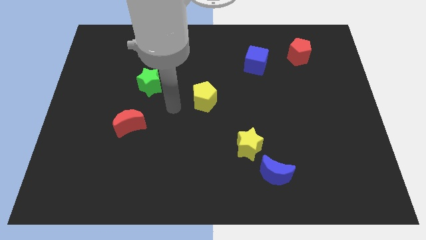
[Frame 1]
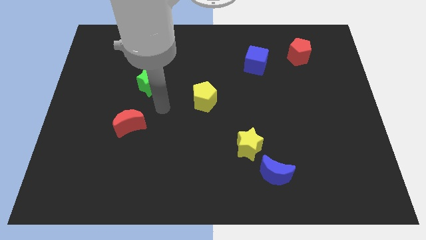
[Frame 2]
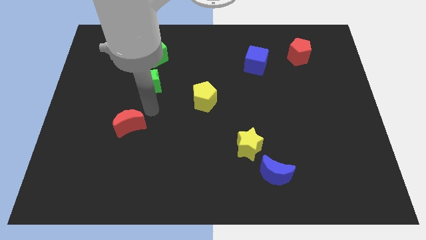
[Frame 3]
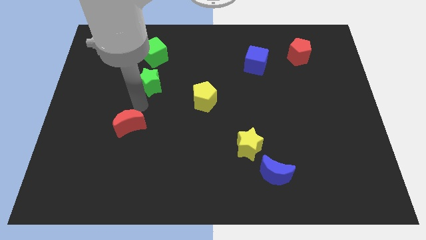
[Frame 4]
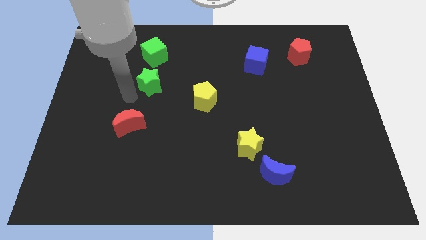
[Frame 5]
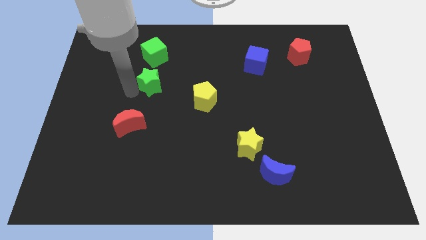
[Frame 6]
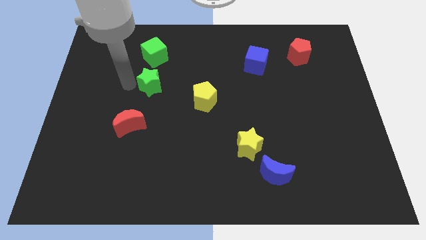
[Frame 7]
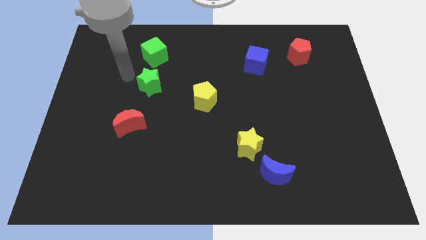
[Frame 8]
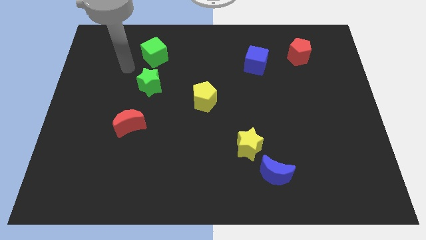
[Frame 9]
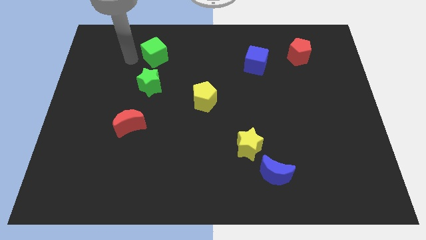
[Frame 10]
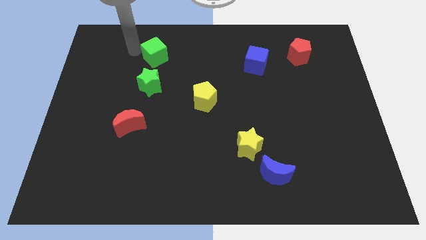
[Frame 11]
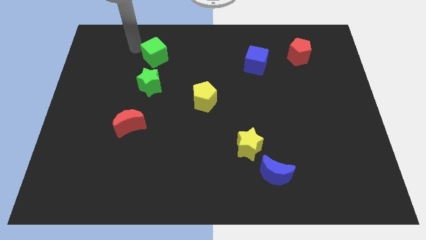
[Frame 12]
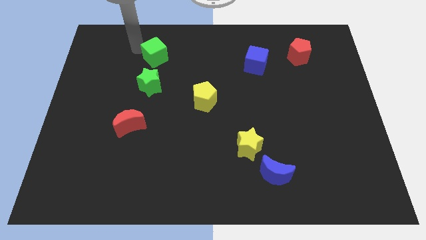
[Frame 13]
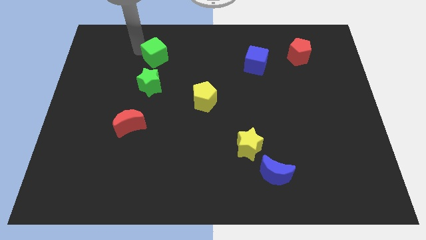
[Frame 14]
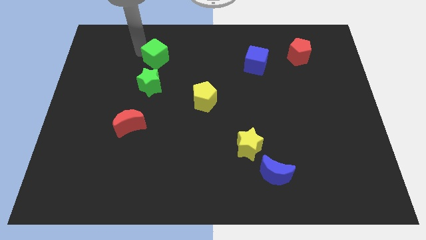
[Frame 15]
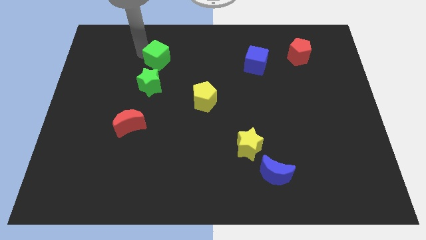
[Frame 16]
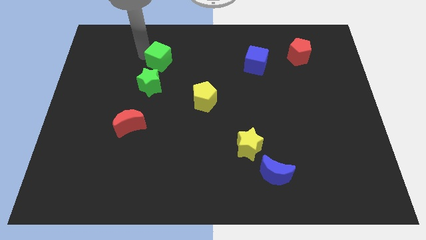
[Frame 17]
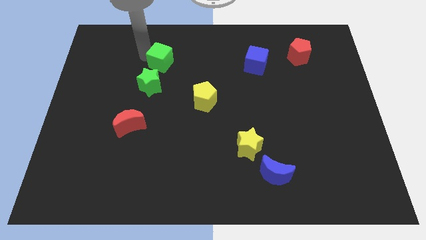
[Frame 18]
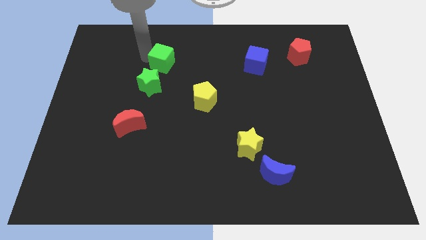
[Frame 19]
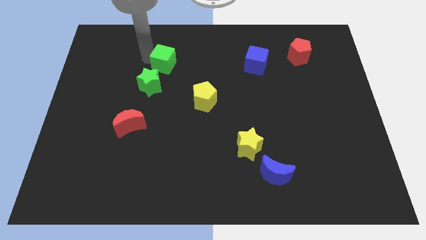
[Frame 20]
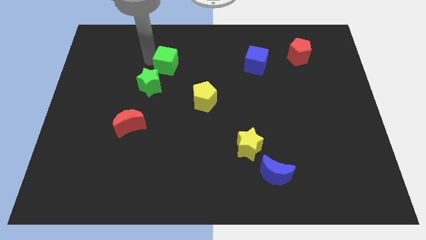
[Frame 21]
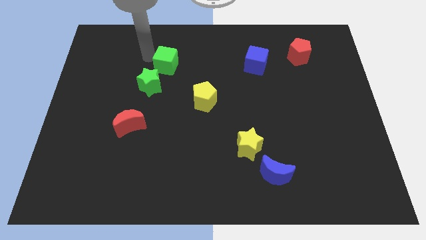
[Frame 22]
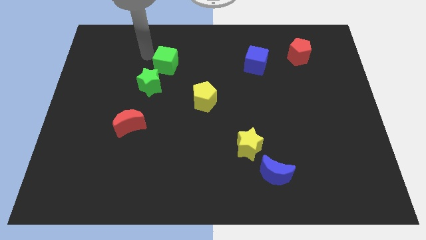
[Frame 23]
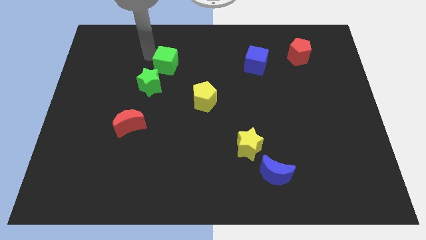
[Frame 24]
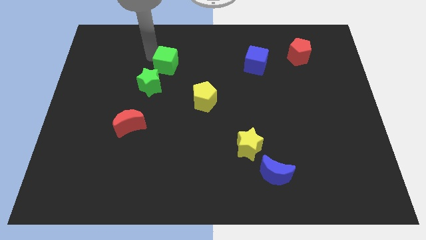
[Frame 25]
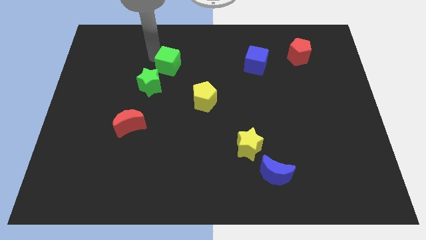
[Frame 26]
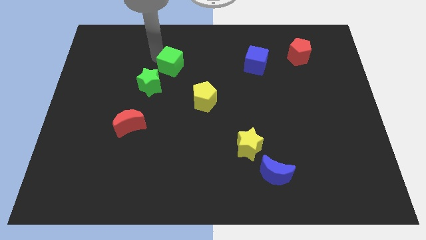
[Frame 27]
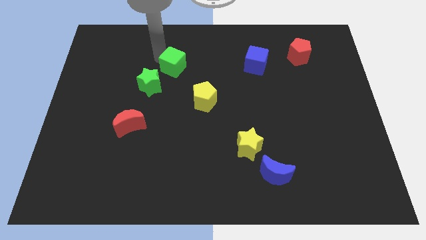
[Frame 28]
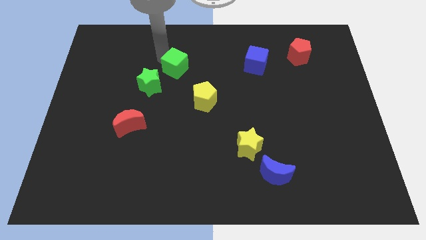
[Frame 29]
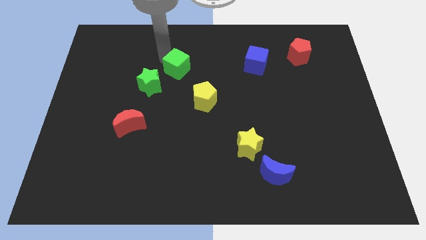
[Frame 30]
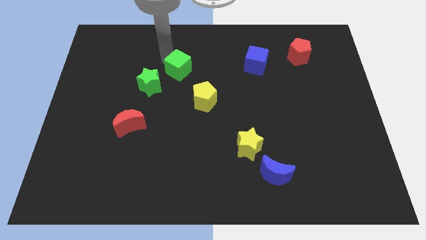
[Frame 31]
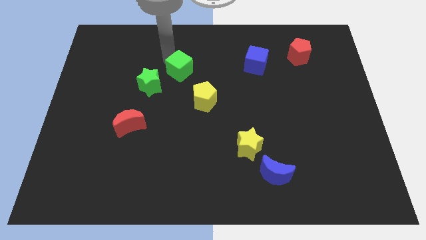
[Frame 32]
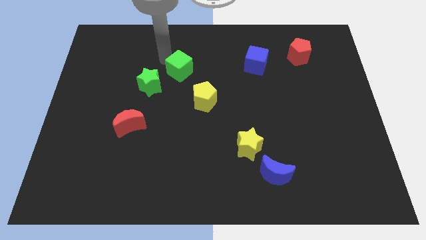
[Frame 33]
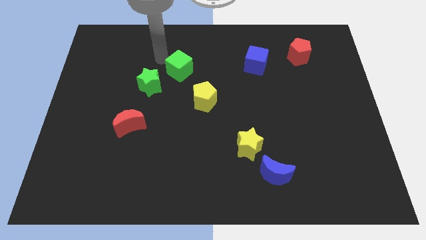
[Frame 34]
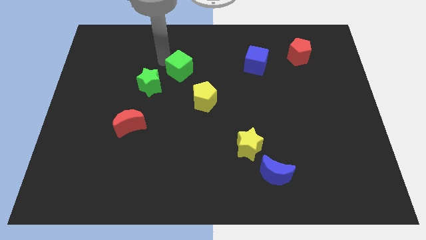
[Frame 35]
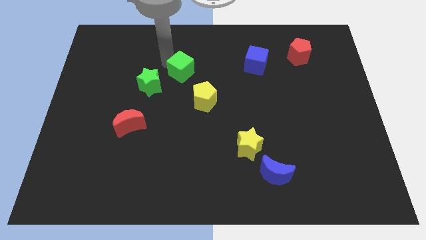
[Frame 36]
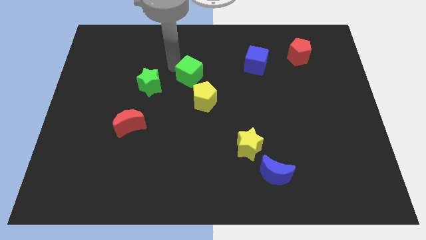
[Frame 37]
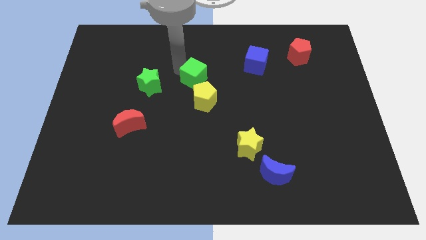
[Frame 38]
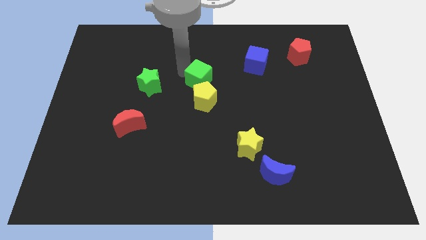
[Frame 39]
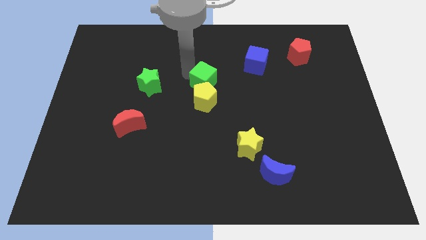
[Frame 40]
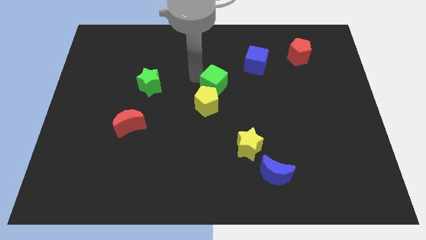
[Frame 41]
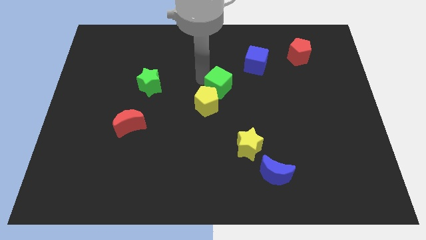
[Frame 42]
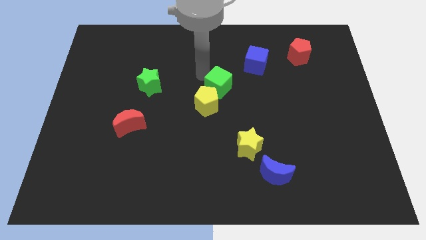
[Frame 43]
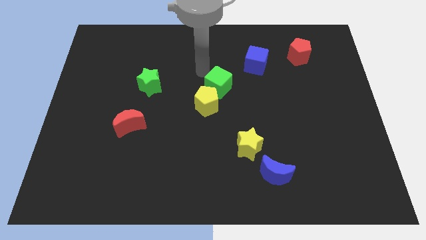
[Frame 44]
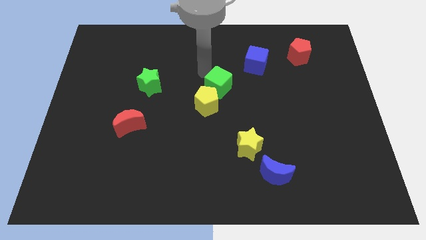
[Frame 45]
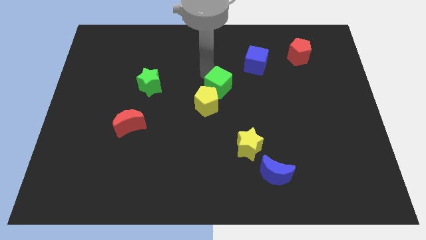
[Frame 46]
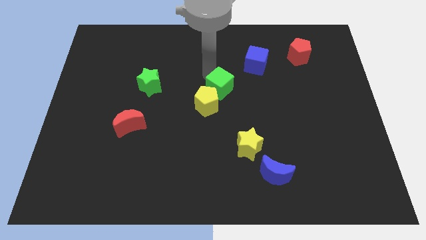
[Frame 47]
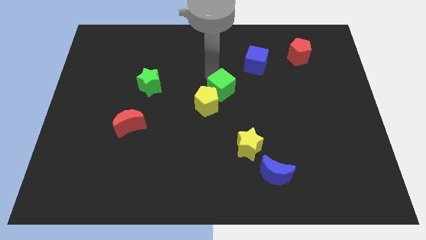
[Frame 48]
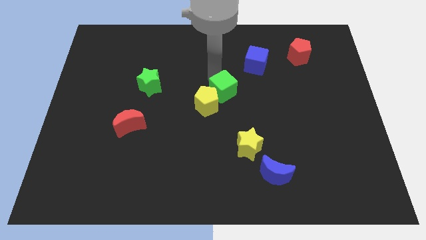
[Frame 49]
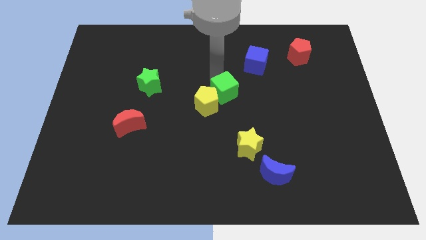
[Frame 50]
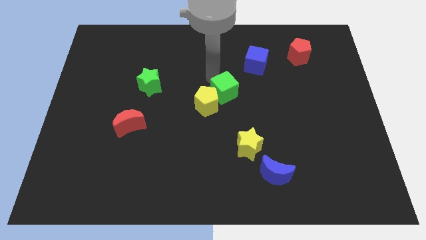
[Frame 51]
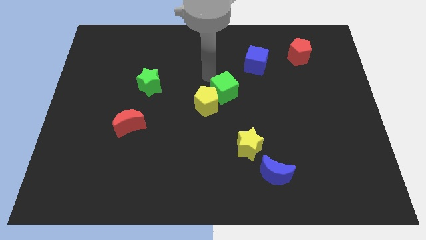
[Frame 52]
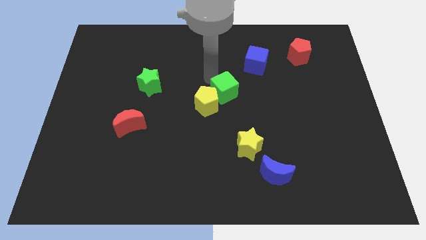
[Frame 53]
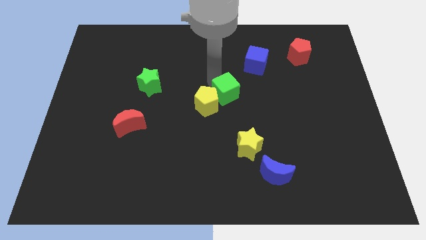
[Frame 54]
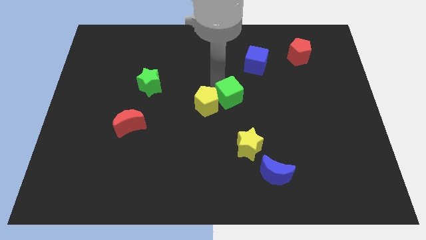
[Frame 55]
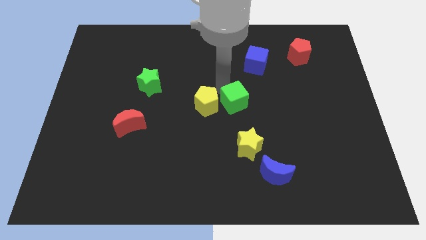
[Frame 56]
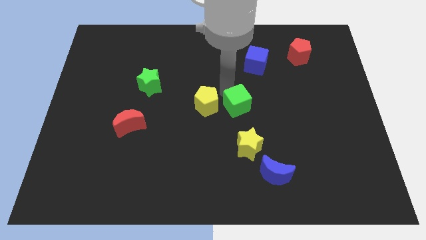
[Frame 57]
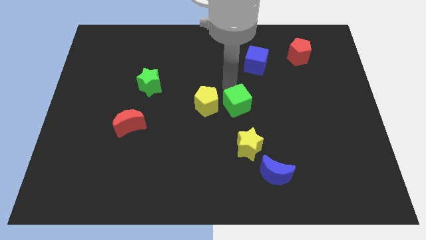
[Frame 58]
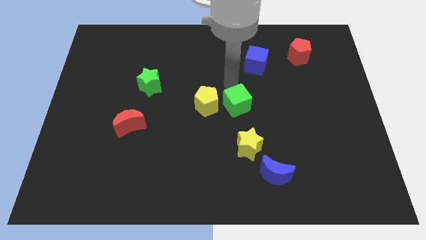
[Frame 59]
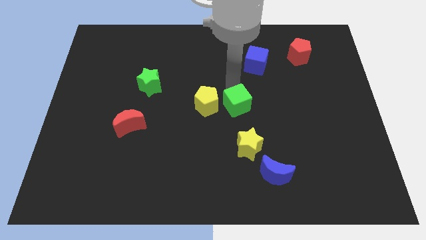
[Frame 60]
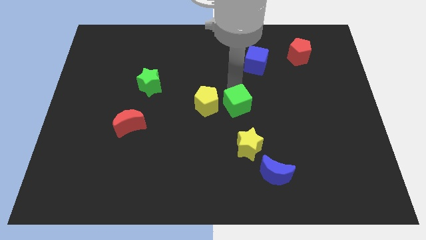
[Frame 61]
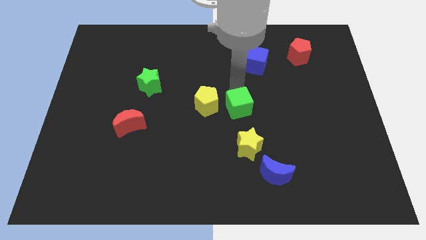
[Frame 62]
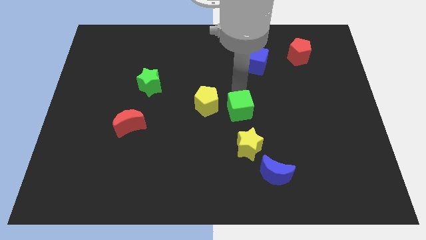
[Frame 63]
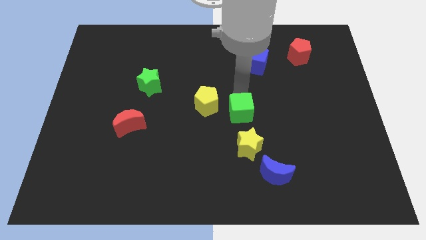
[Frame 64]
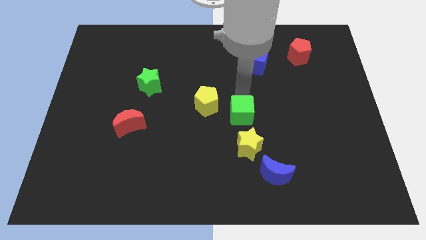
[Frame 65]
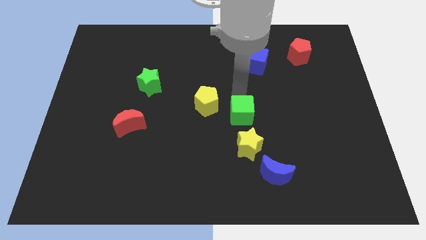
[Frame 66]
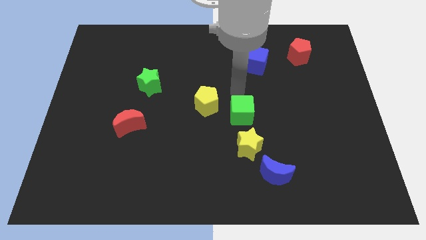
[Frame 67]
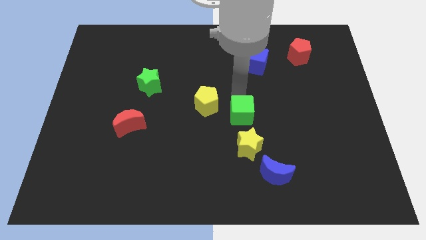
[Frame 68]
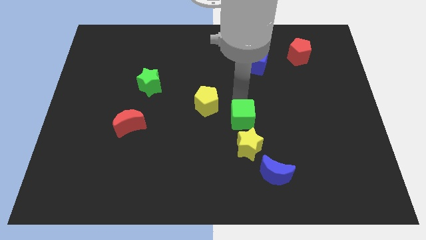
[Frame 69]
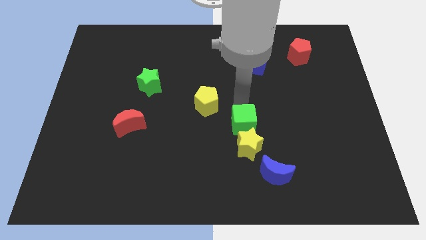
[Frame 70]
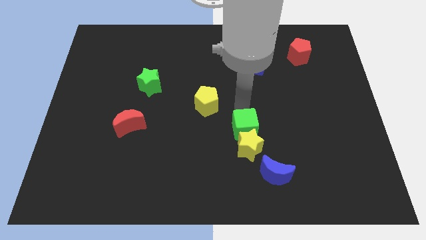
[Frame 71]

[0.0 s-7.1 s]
put the green cube towards the yellow star

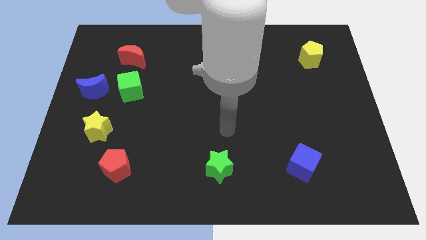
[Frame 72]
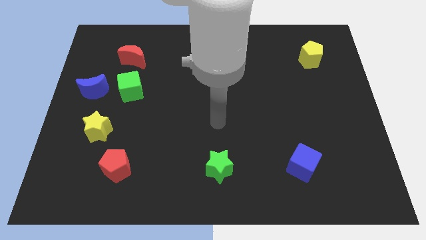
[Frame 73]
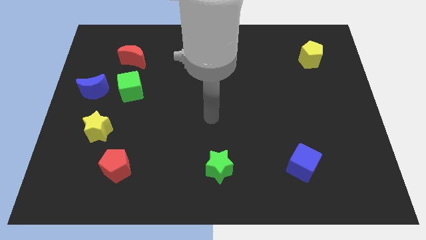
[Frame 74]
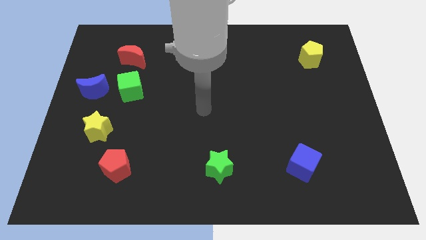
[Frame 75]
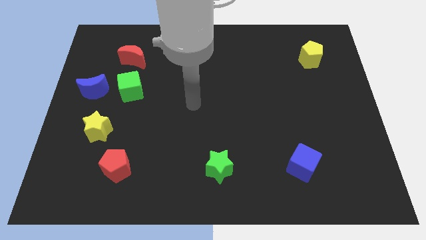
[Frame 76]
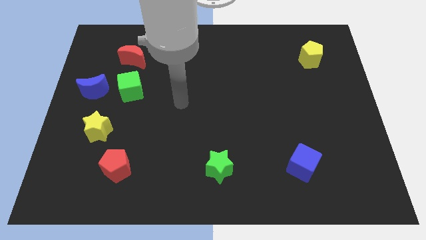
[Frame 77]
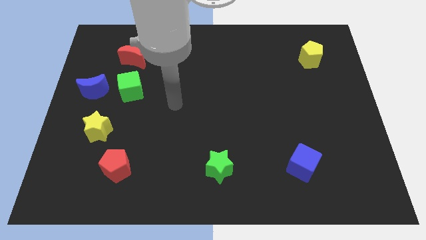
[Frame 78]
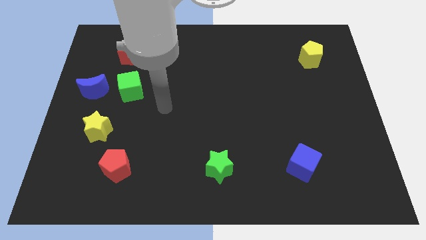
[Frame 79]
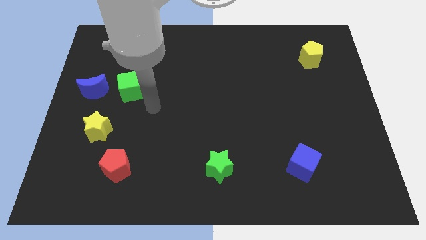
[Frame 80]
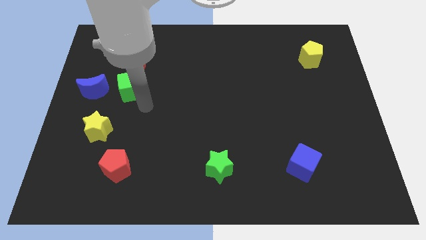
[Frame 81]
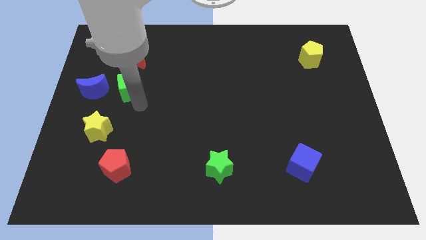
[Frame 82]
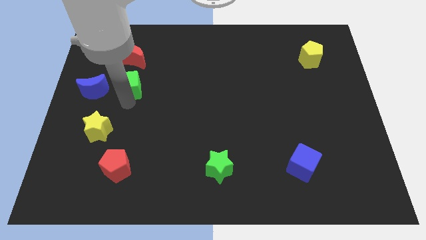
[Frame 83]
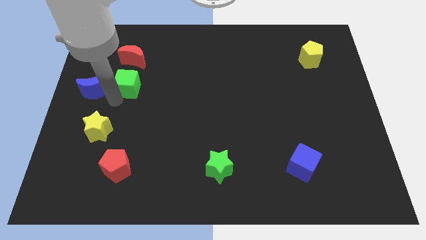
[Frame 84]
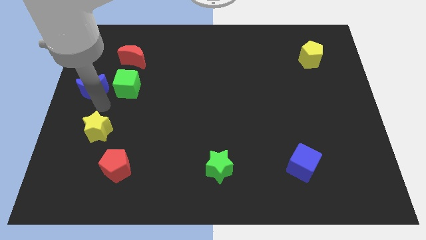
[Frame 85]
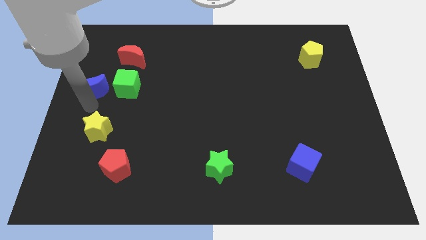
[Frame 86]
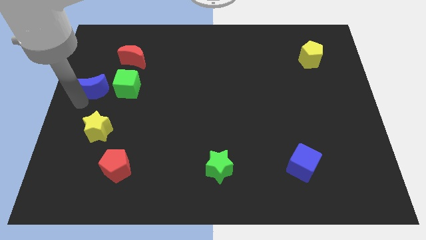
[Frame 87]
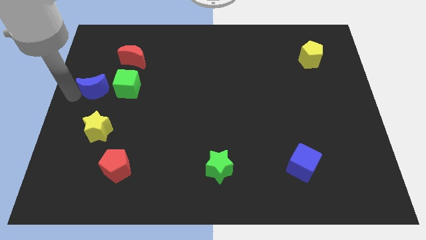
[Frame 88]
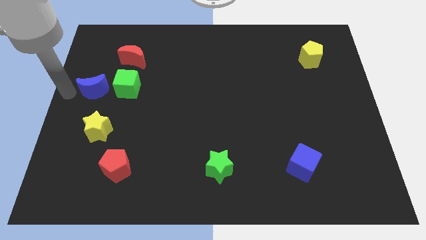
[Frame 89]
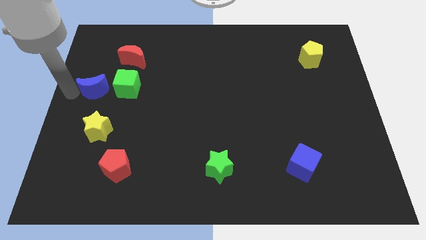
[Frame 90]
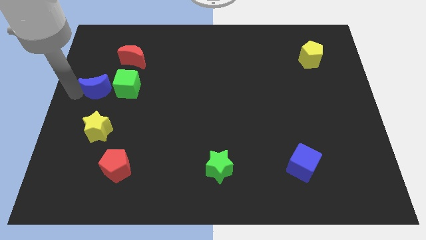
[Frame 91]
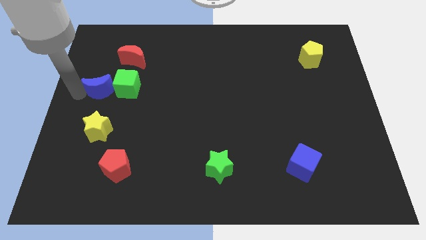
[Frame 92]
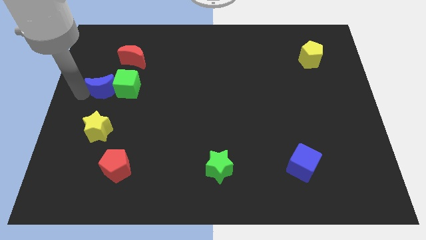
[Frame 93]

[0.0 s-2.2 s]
slide the blue moon next to the green cube
